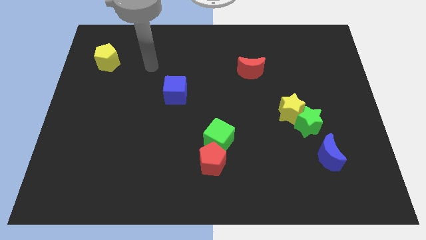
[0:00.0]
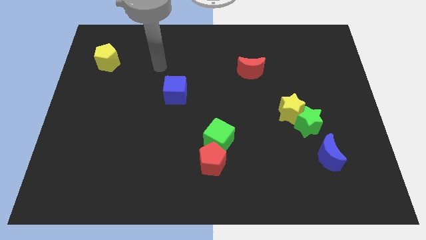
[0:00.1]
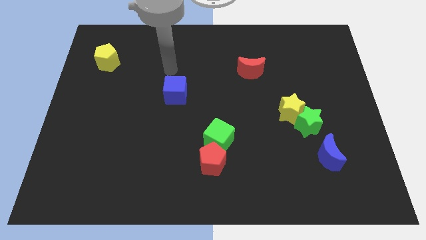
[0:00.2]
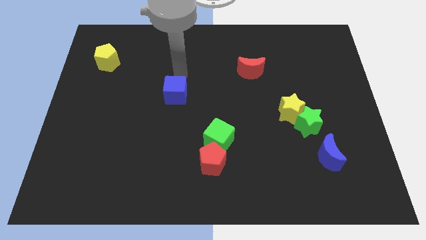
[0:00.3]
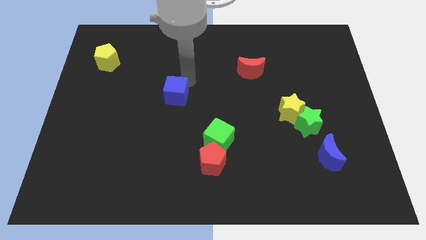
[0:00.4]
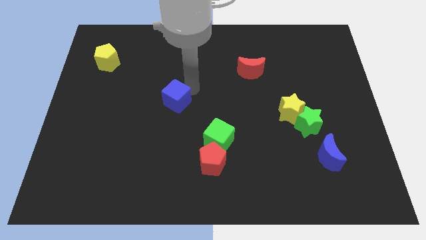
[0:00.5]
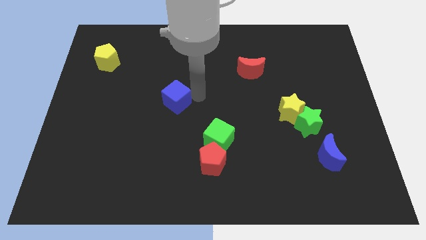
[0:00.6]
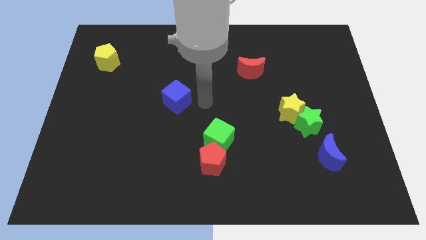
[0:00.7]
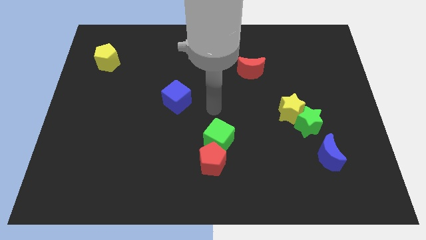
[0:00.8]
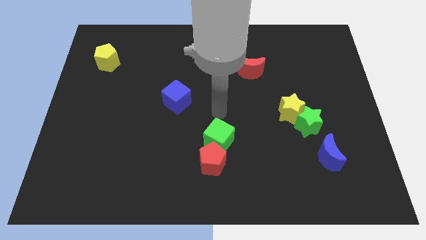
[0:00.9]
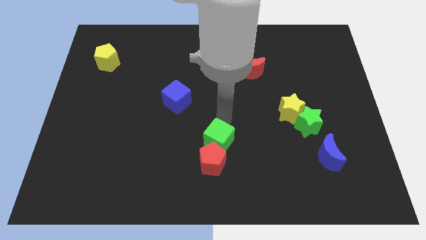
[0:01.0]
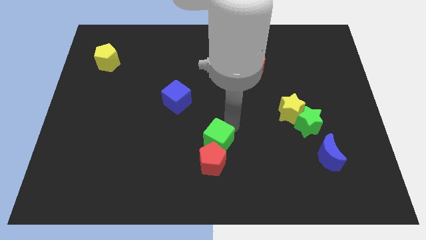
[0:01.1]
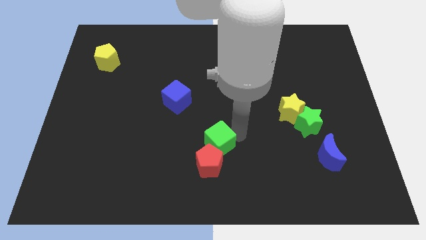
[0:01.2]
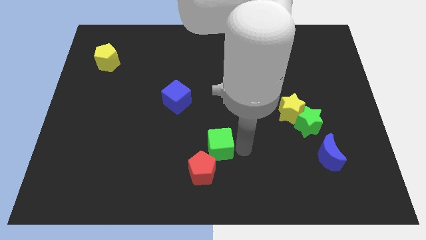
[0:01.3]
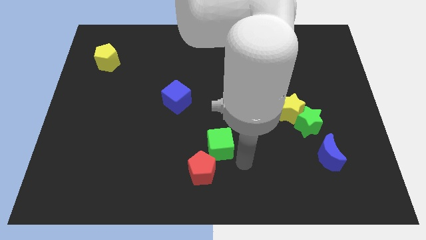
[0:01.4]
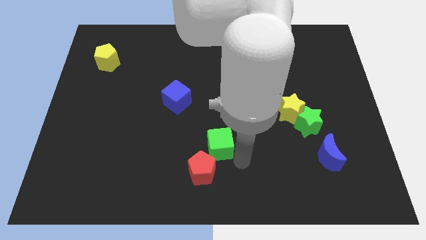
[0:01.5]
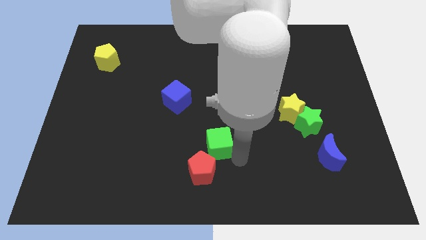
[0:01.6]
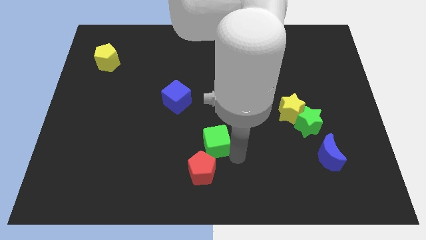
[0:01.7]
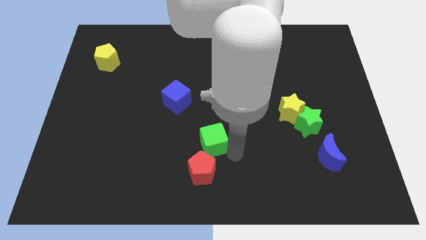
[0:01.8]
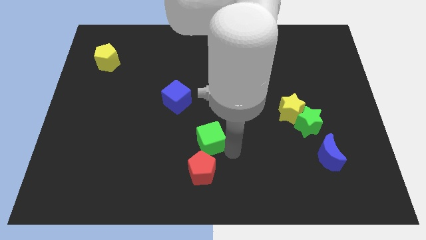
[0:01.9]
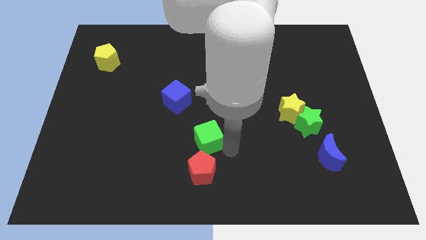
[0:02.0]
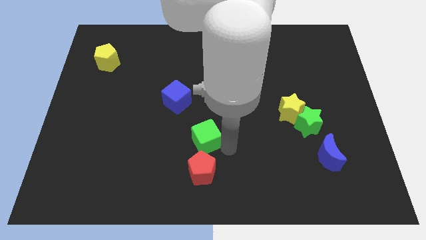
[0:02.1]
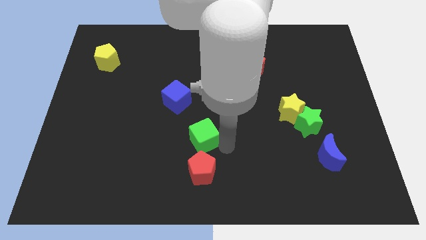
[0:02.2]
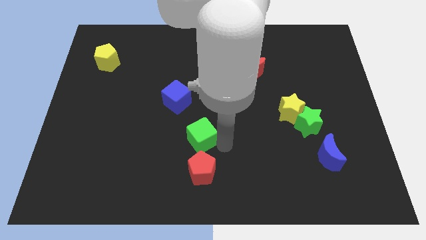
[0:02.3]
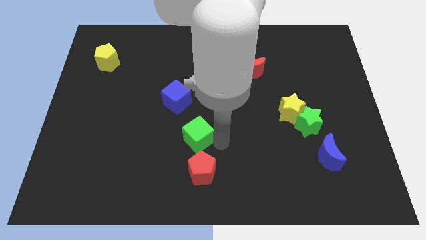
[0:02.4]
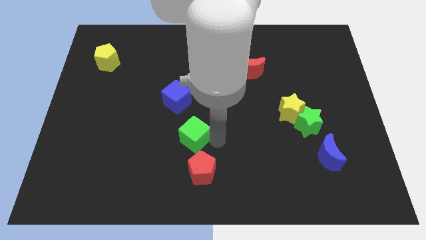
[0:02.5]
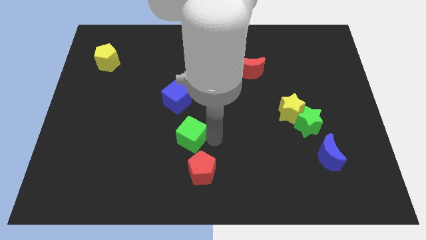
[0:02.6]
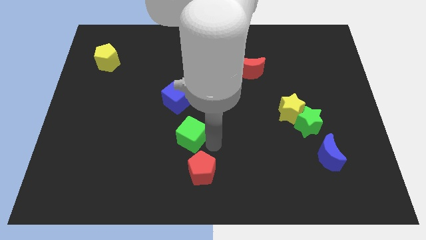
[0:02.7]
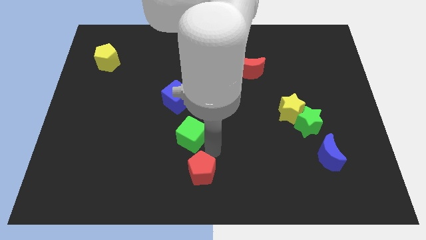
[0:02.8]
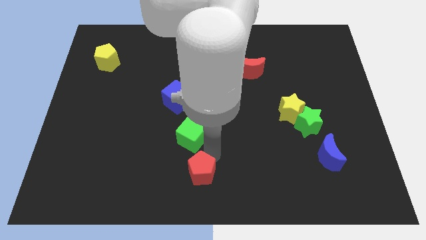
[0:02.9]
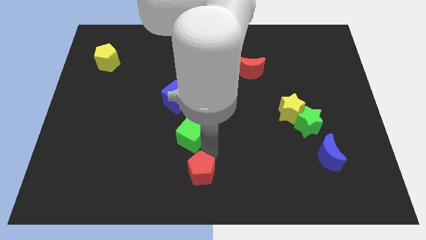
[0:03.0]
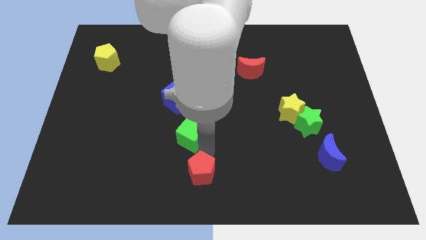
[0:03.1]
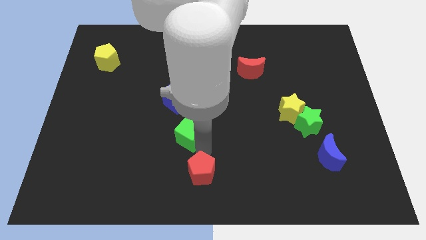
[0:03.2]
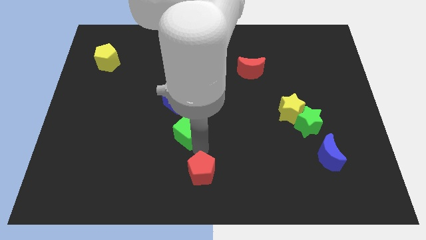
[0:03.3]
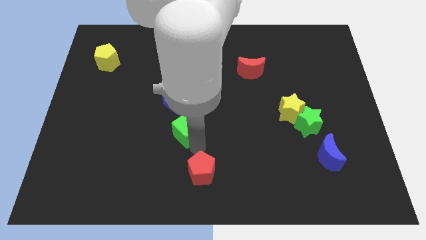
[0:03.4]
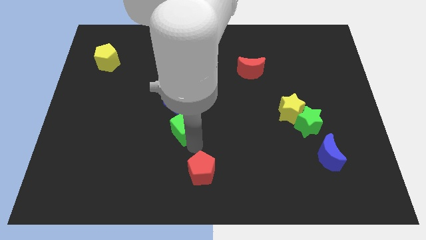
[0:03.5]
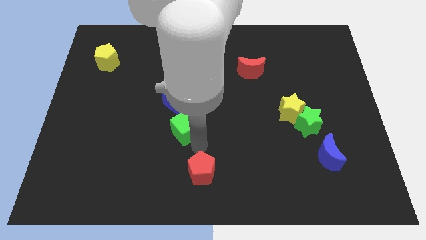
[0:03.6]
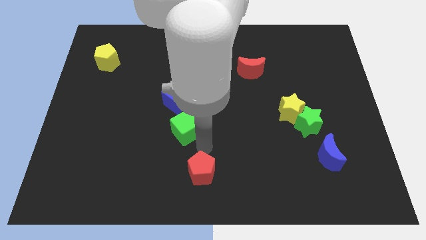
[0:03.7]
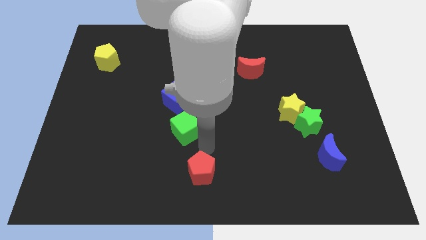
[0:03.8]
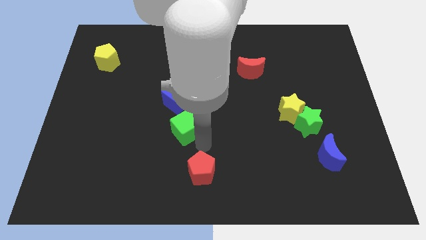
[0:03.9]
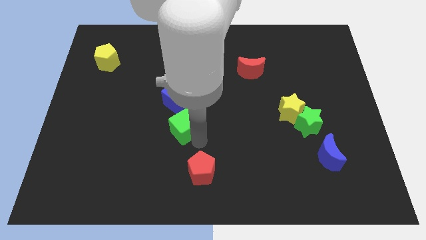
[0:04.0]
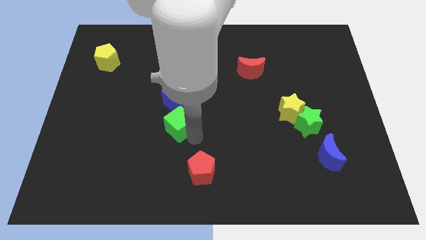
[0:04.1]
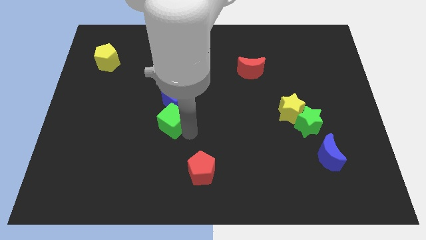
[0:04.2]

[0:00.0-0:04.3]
put the green cube to the bottom left side of the blue cube

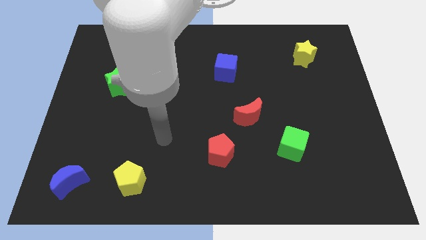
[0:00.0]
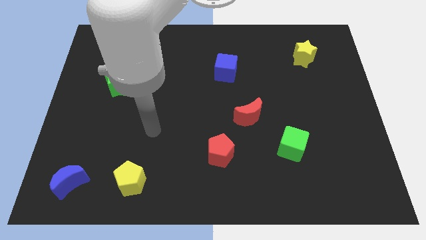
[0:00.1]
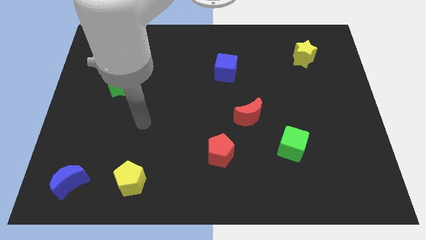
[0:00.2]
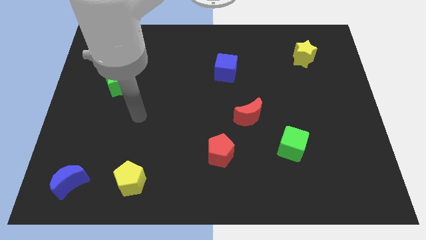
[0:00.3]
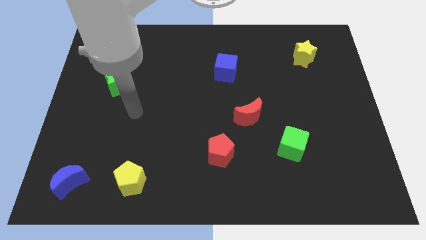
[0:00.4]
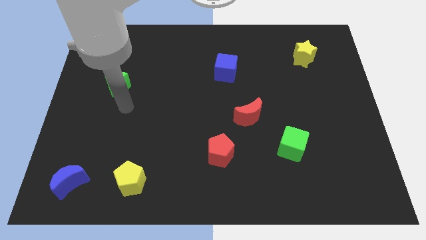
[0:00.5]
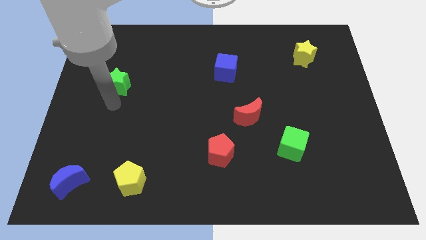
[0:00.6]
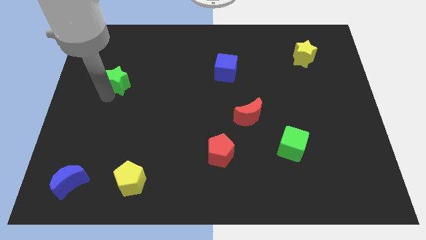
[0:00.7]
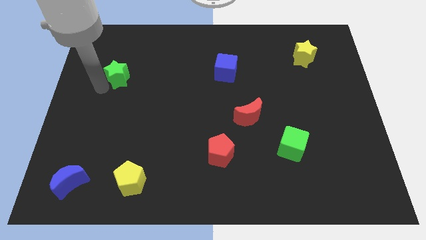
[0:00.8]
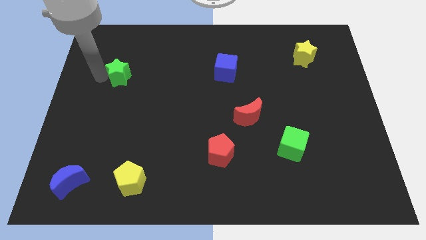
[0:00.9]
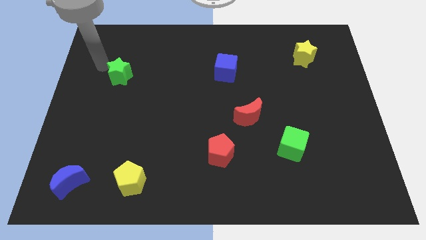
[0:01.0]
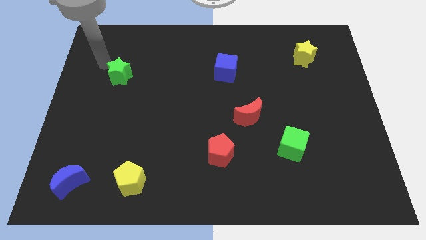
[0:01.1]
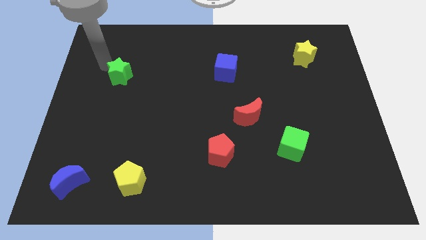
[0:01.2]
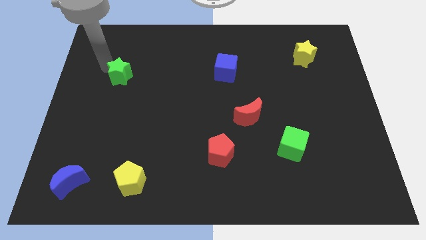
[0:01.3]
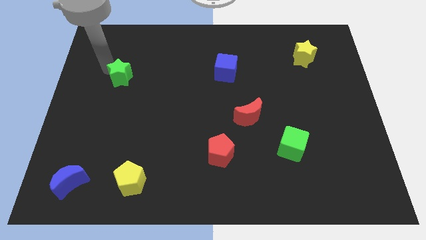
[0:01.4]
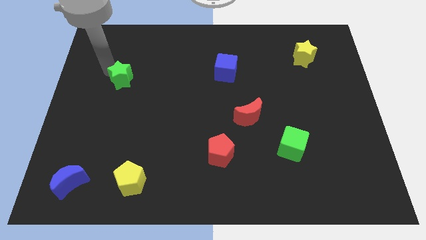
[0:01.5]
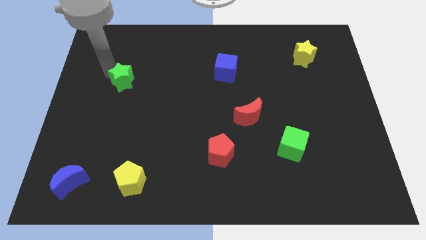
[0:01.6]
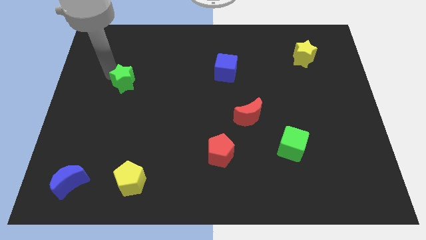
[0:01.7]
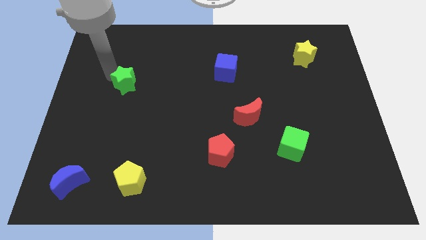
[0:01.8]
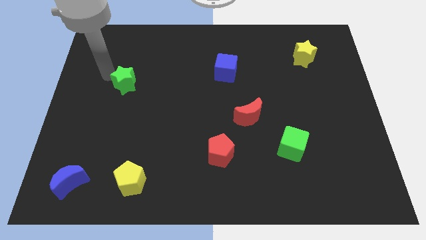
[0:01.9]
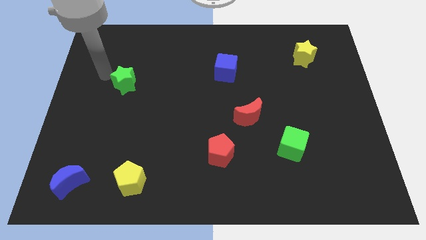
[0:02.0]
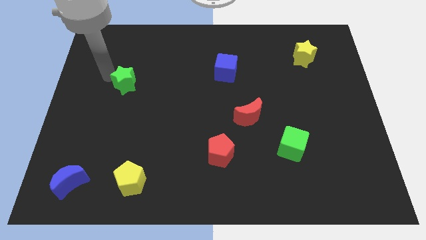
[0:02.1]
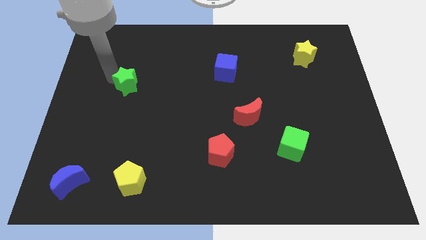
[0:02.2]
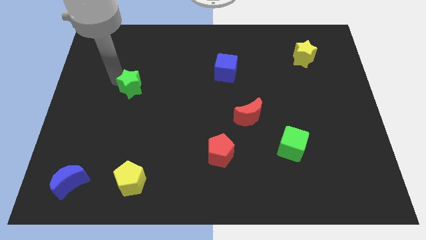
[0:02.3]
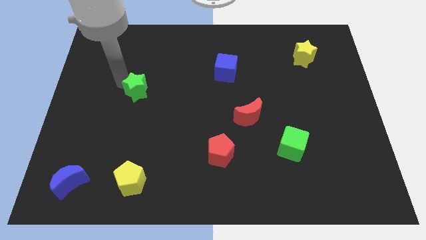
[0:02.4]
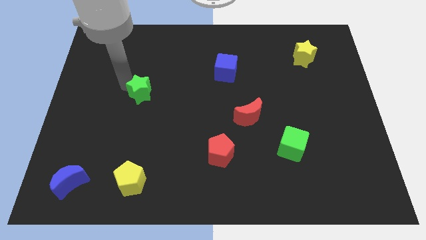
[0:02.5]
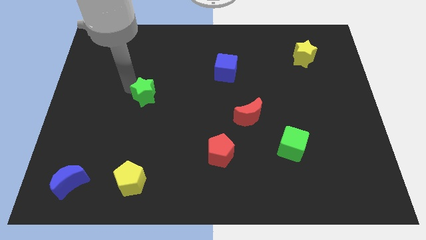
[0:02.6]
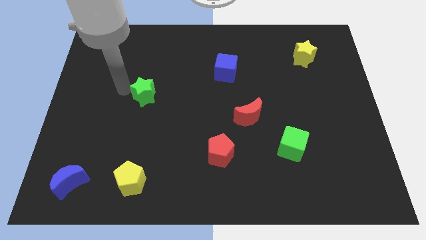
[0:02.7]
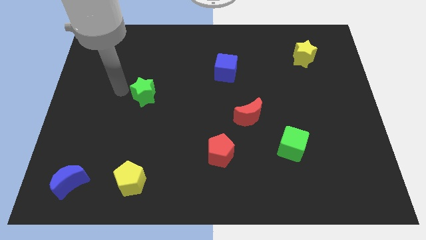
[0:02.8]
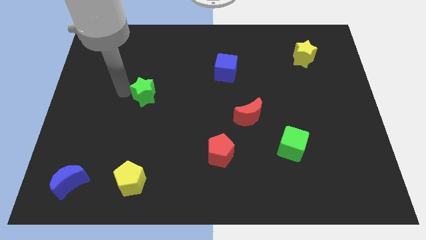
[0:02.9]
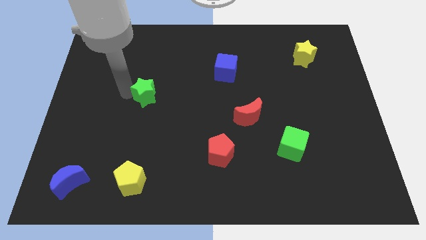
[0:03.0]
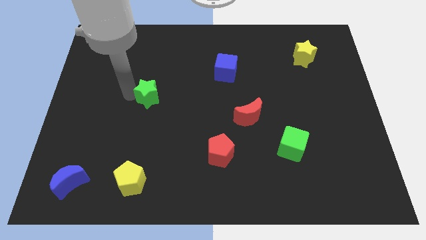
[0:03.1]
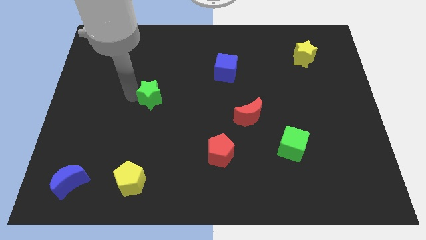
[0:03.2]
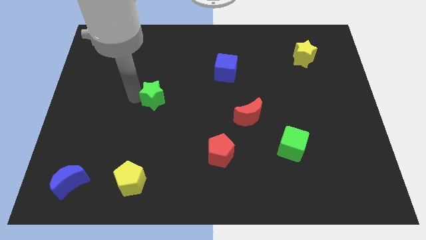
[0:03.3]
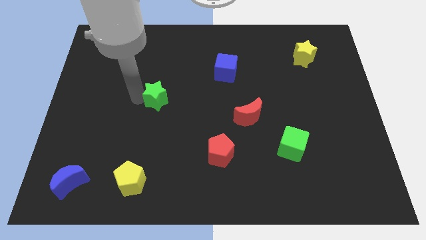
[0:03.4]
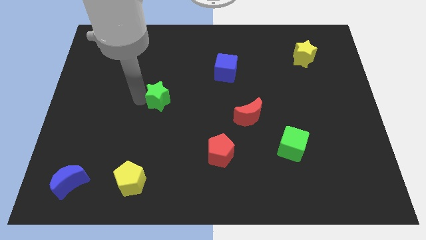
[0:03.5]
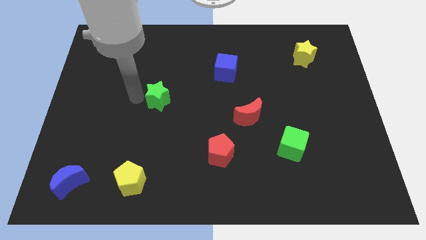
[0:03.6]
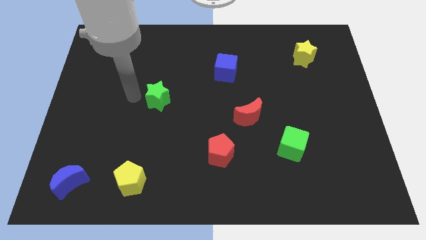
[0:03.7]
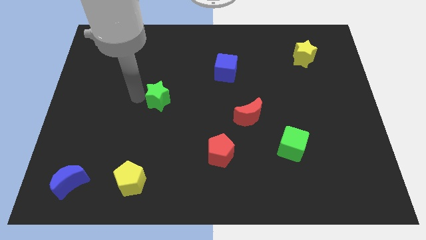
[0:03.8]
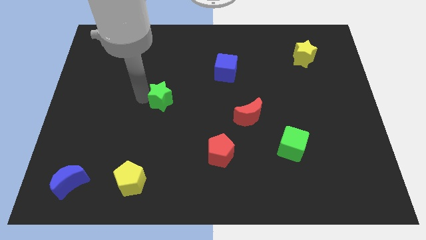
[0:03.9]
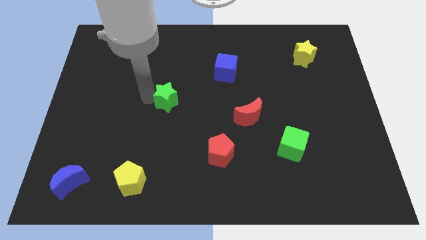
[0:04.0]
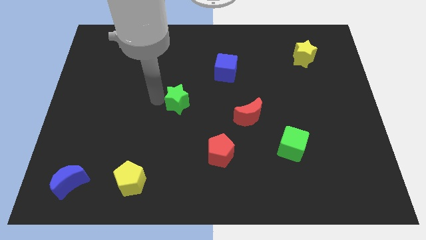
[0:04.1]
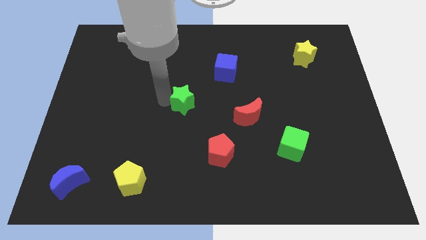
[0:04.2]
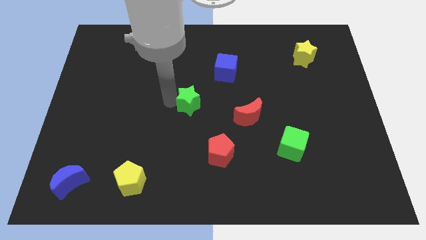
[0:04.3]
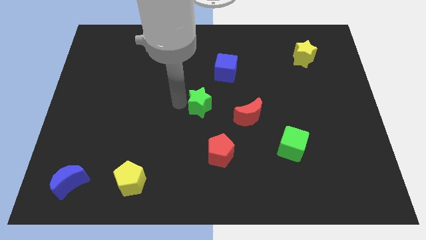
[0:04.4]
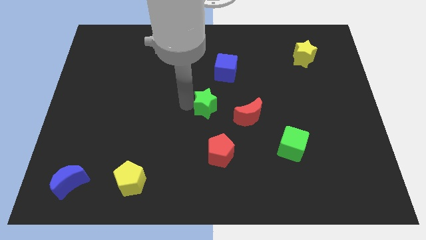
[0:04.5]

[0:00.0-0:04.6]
slide the green star to the bottom side of the blue cube
